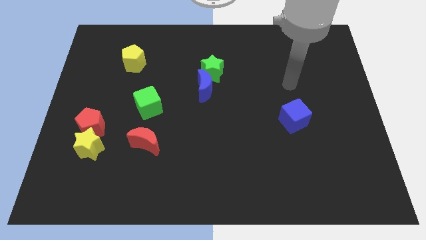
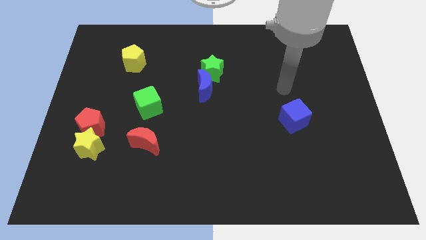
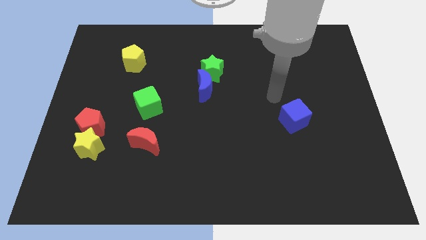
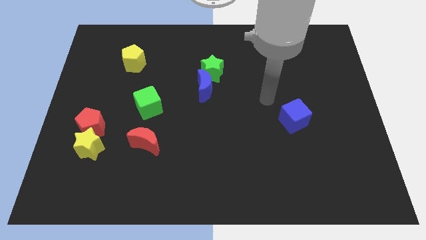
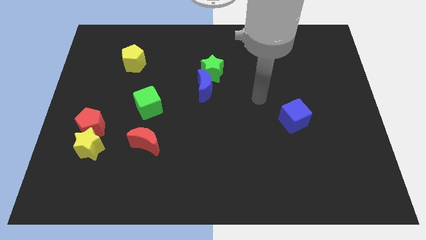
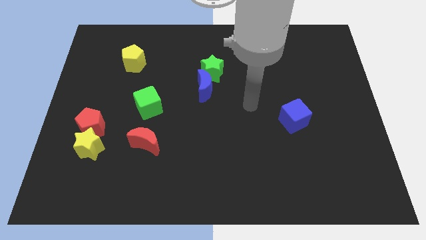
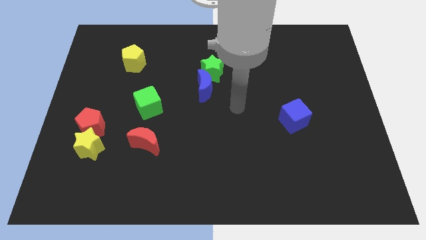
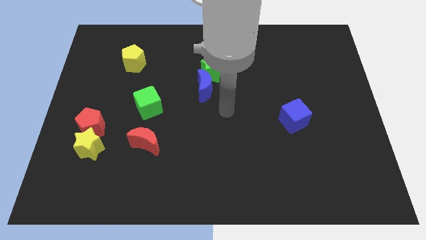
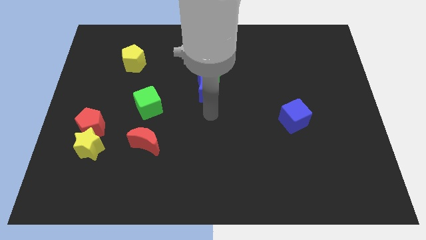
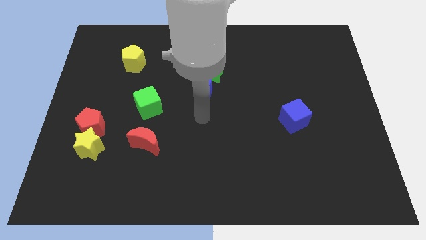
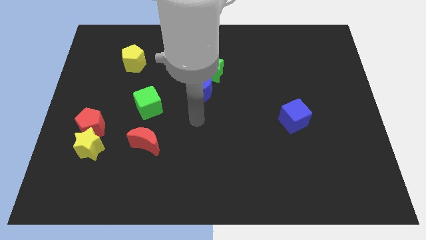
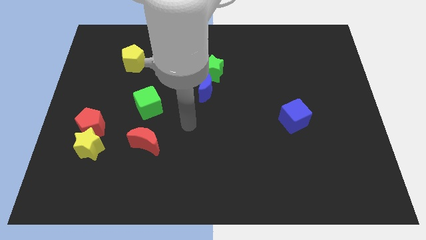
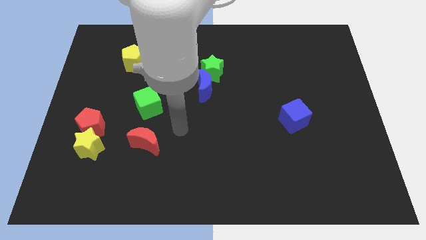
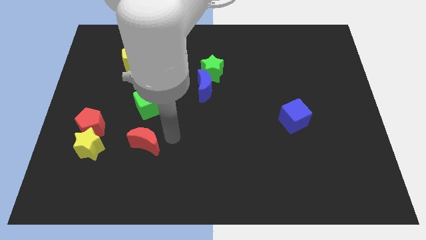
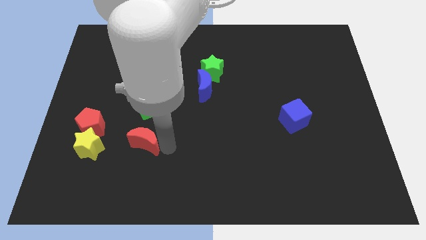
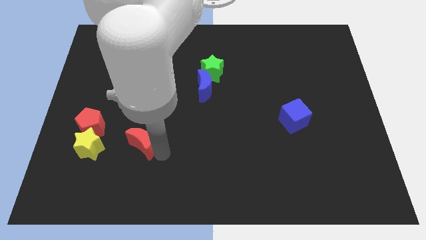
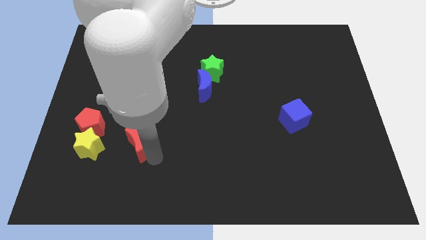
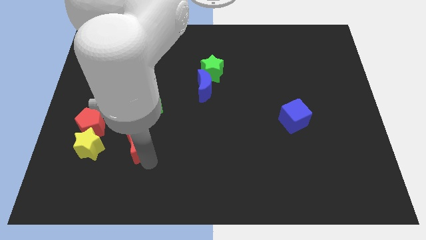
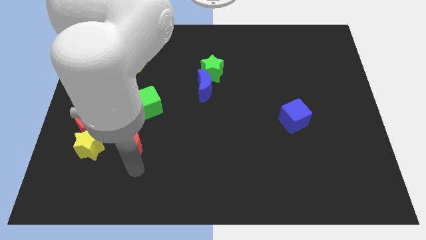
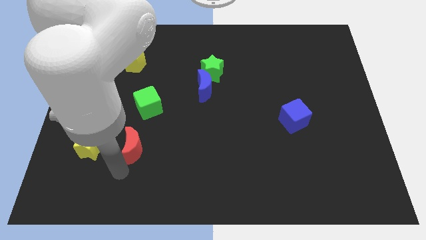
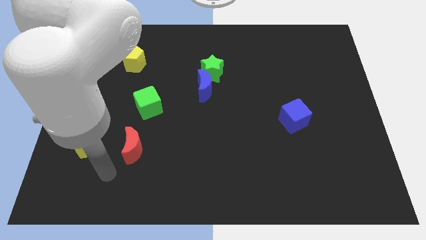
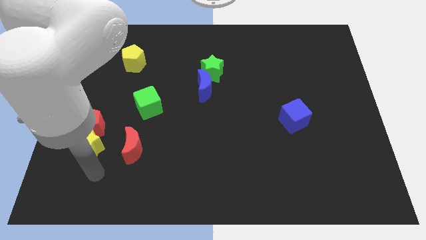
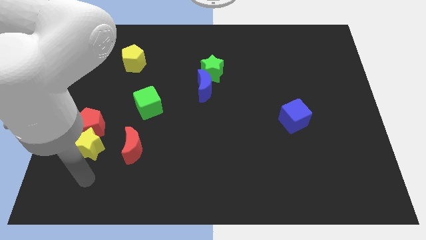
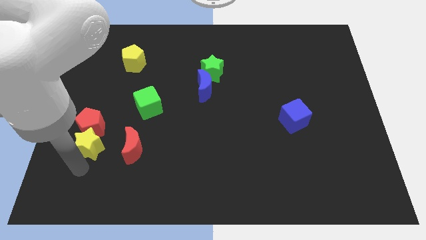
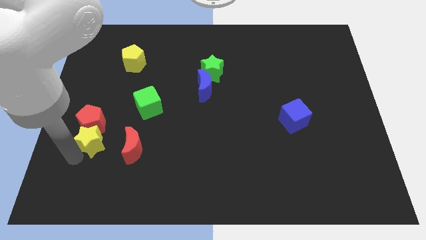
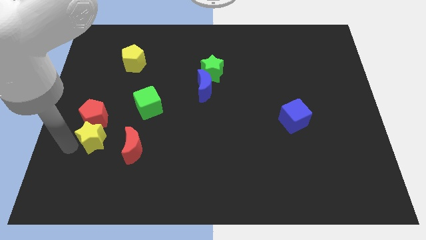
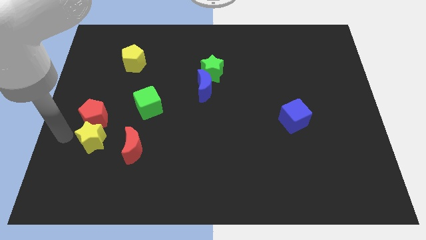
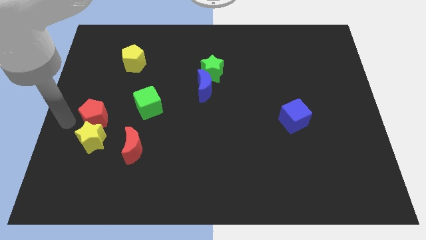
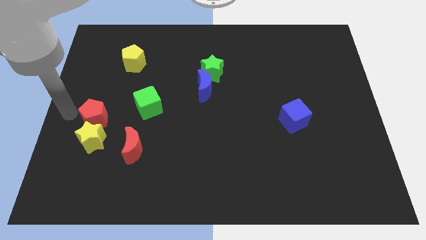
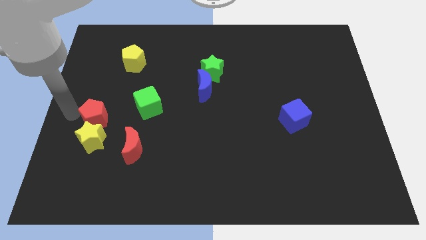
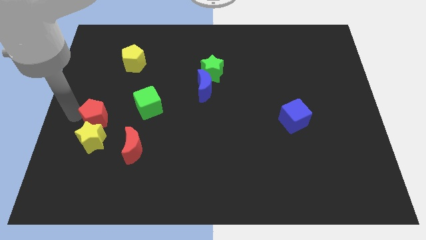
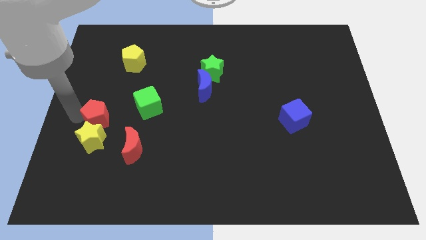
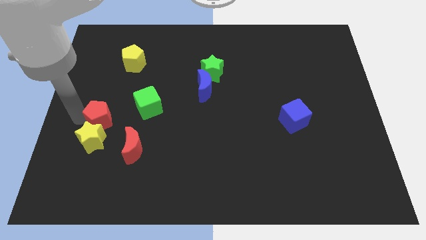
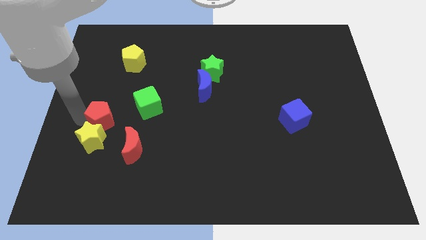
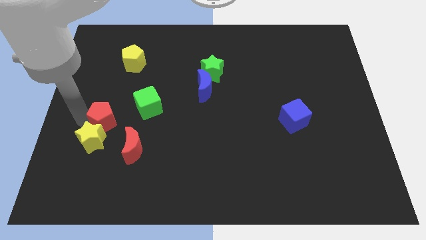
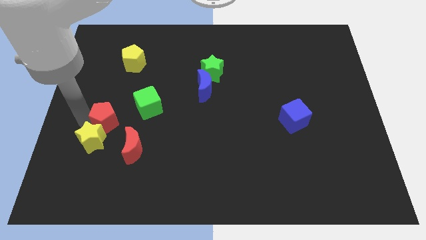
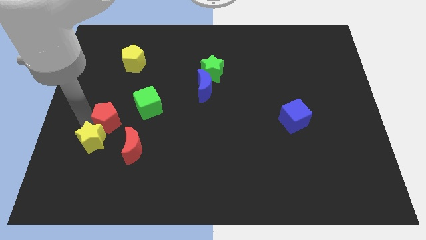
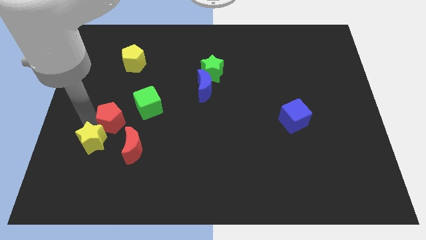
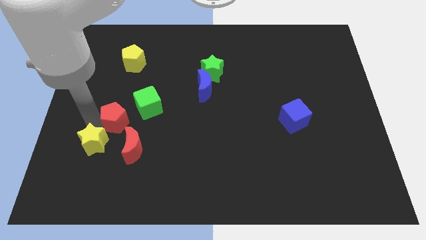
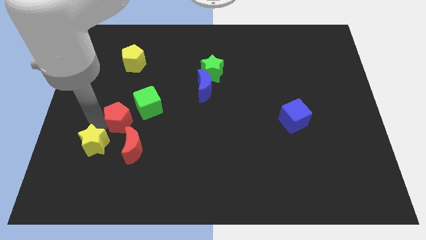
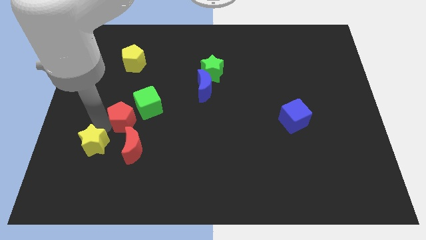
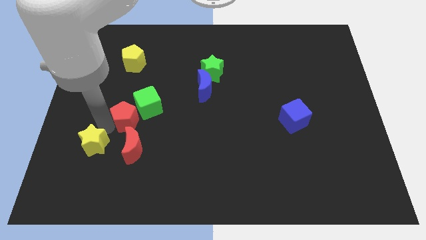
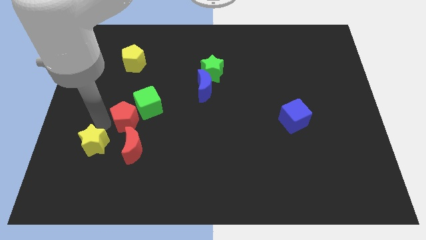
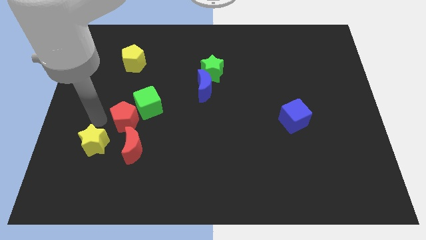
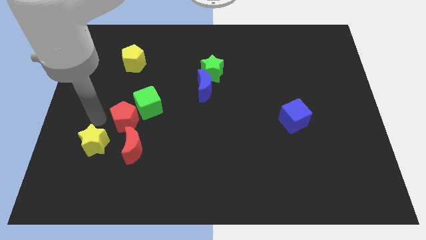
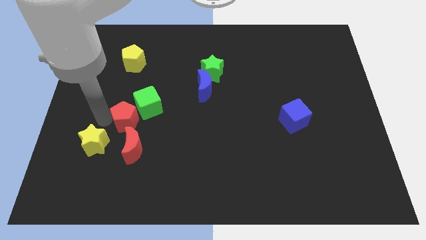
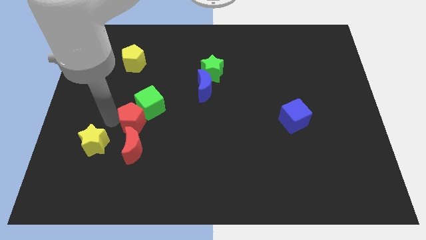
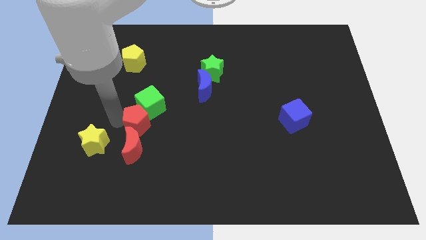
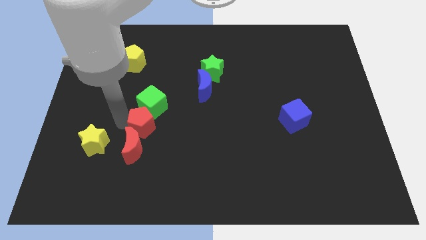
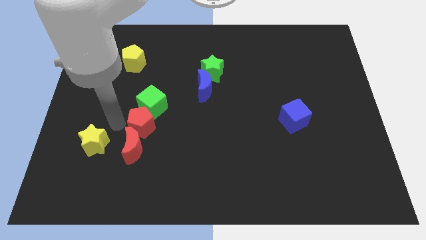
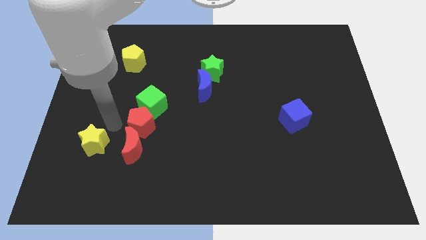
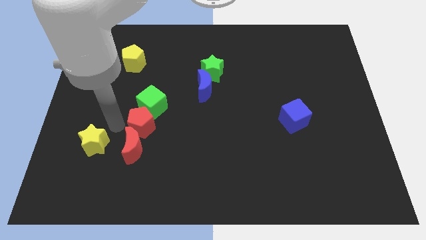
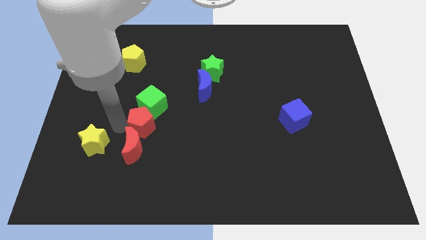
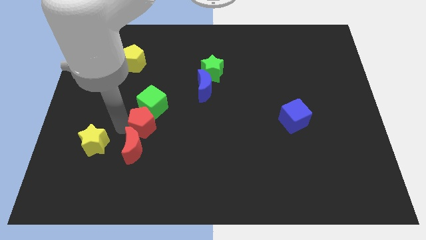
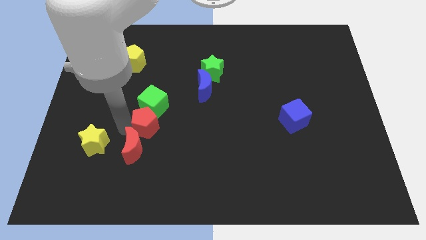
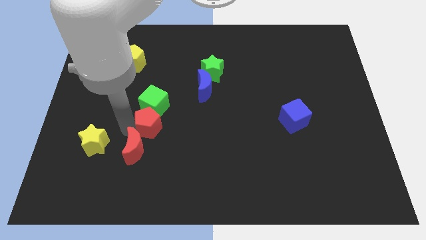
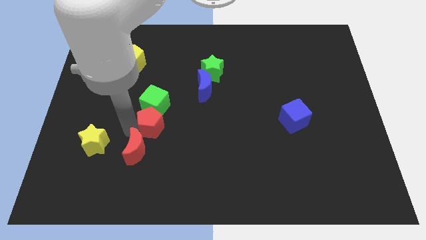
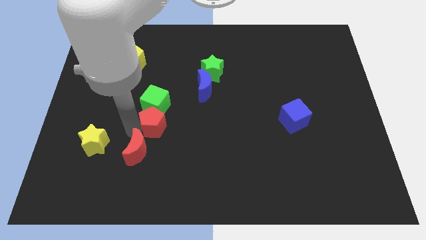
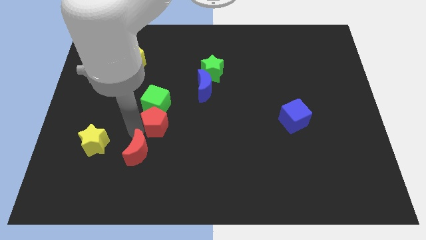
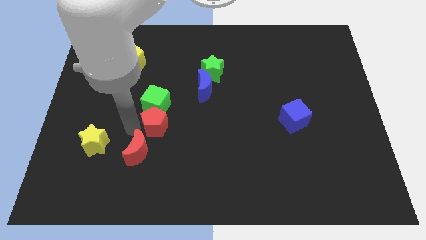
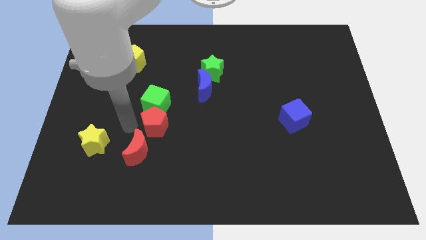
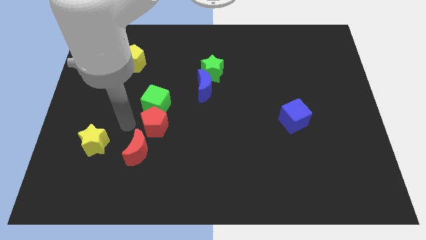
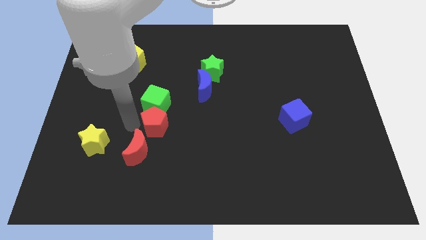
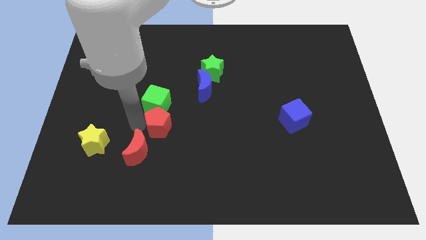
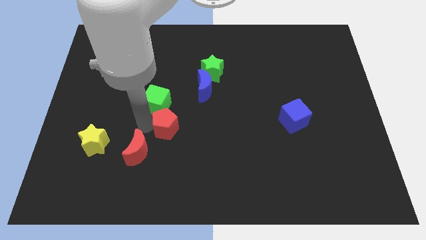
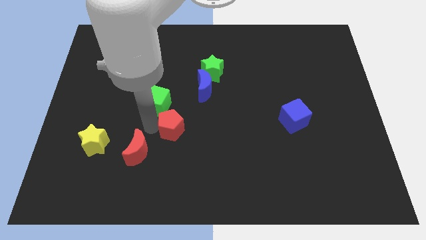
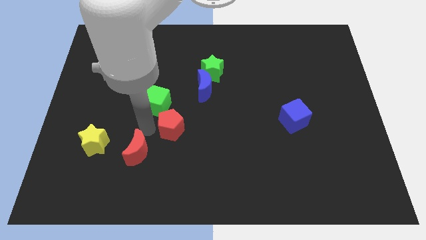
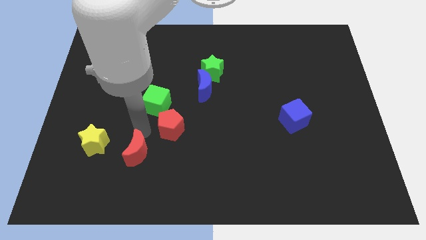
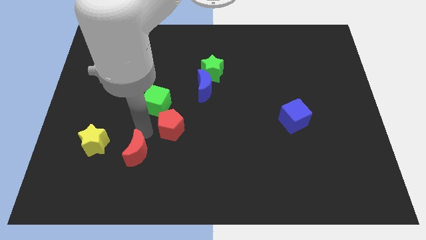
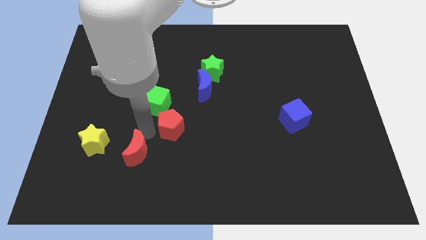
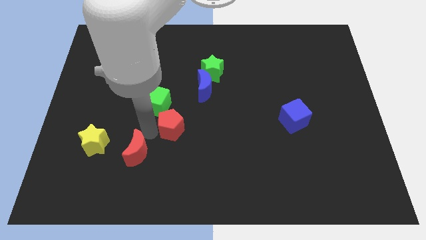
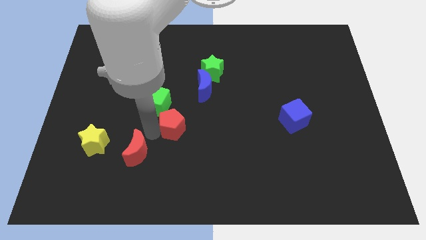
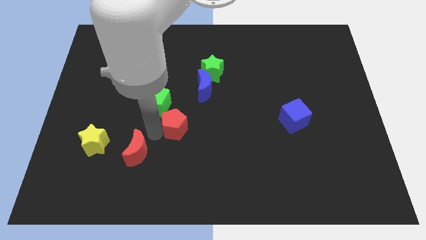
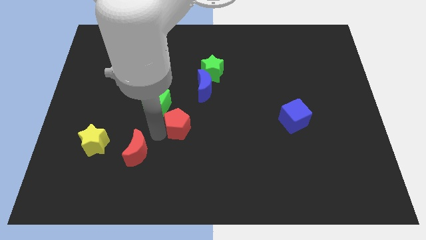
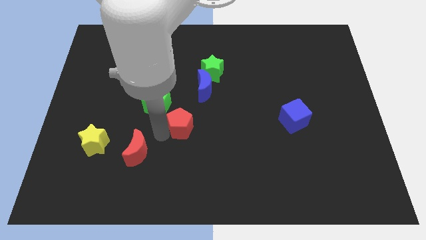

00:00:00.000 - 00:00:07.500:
push the red pentagon to the right
